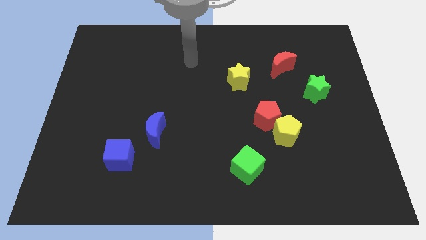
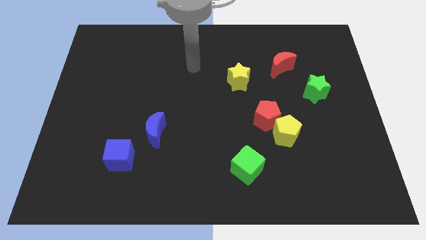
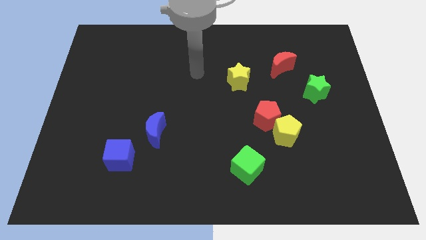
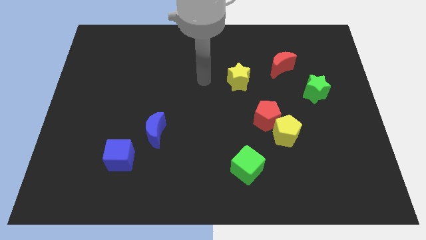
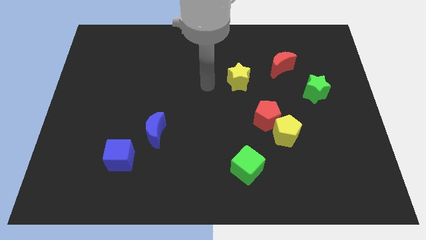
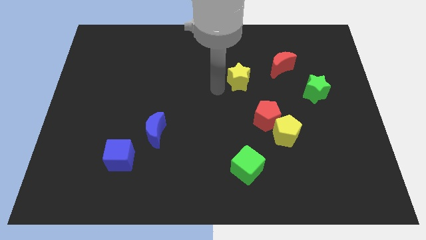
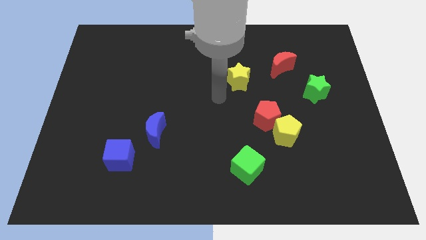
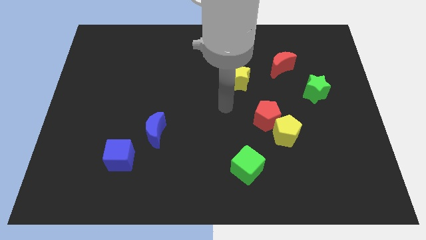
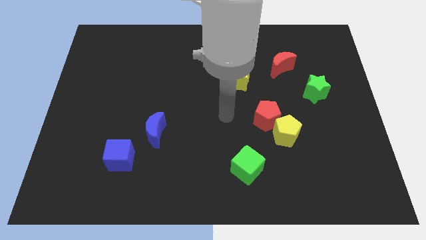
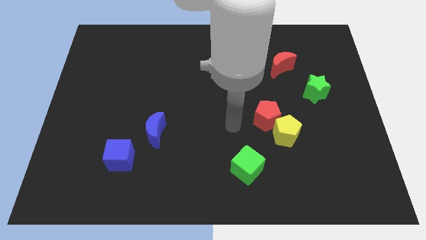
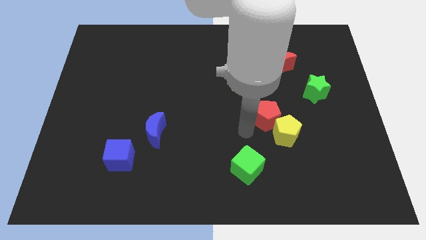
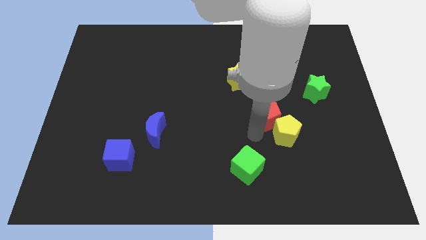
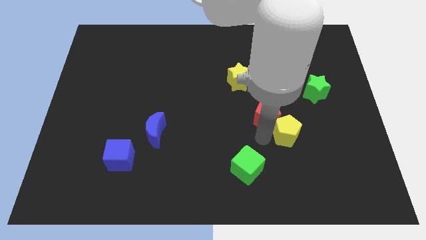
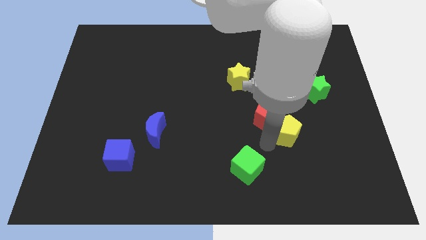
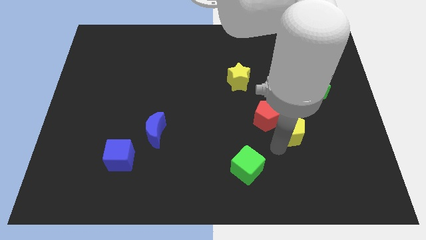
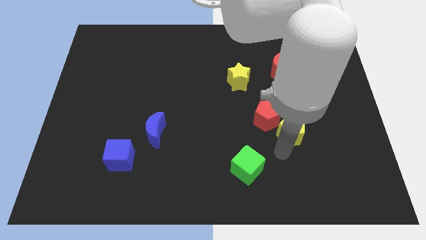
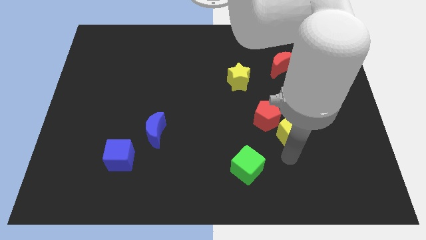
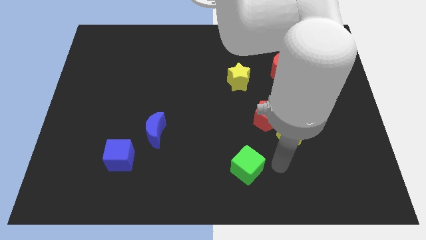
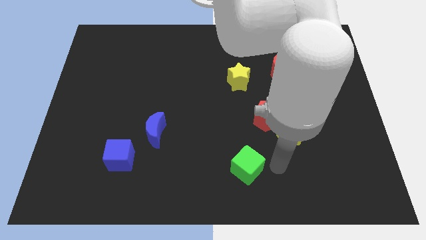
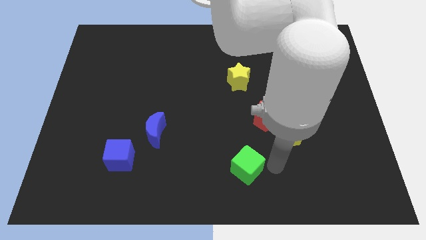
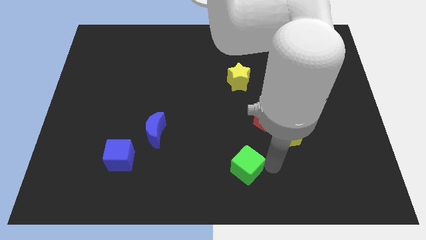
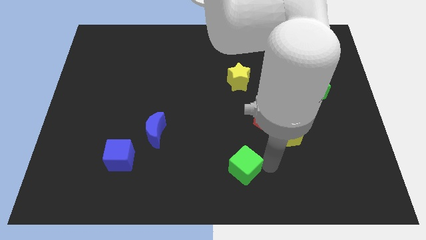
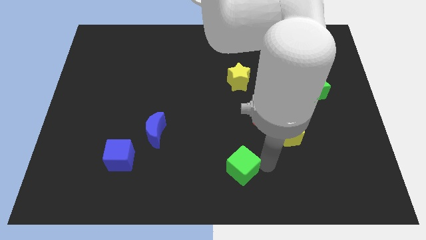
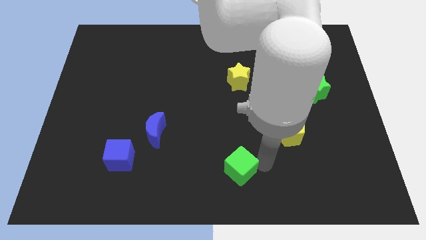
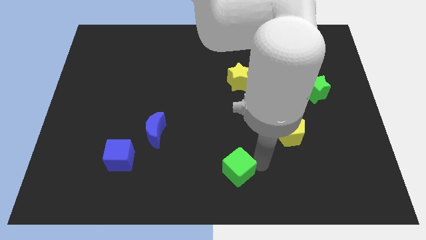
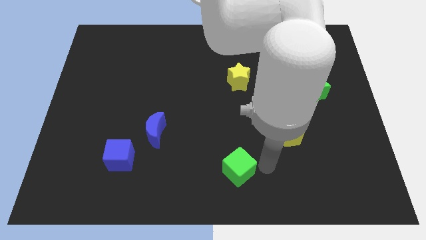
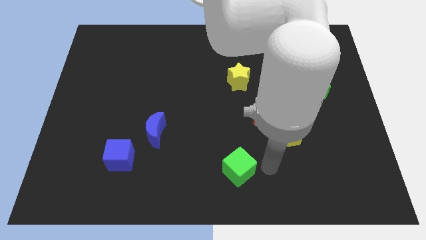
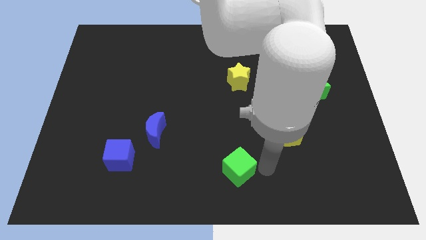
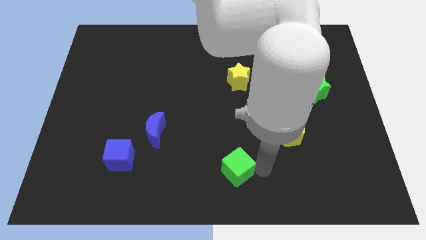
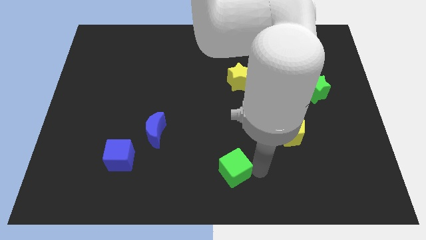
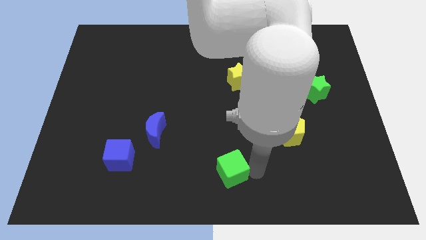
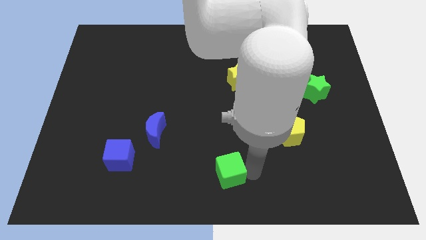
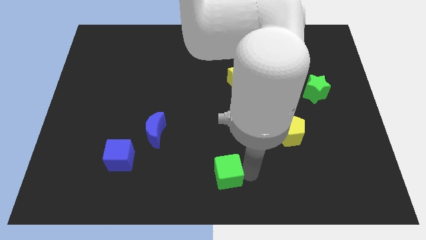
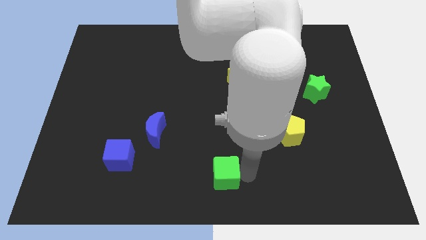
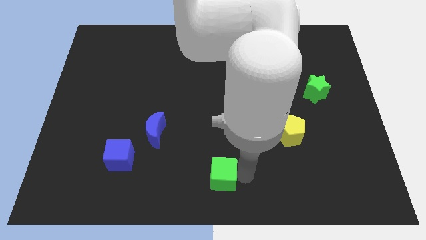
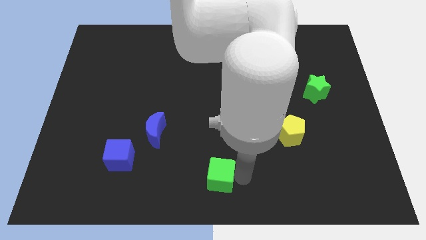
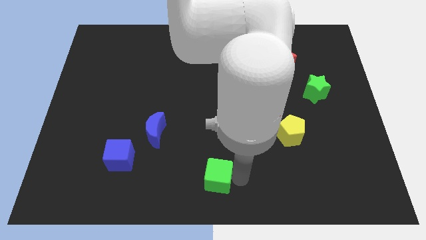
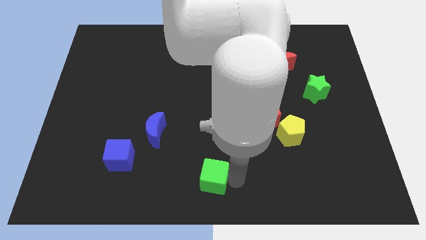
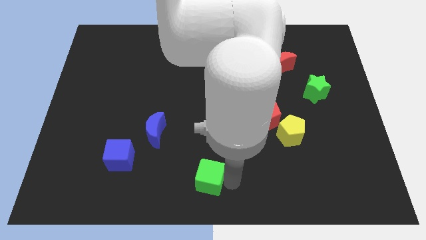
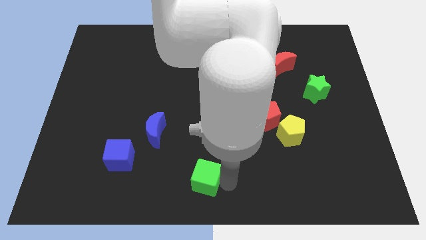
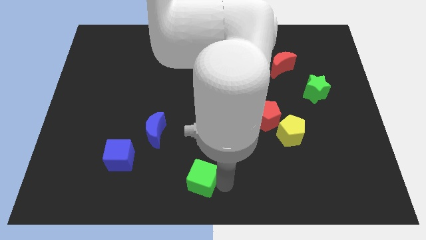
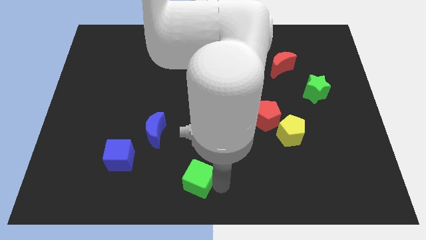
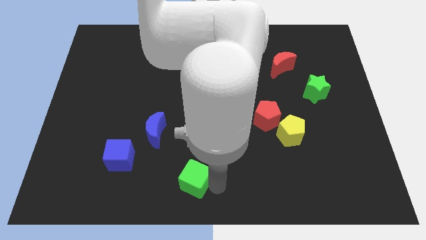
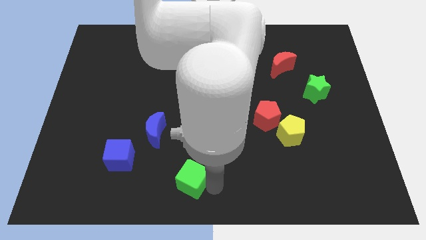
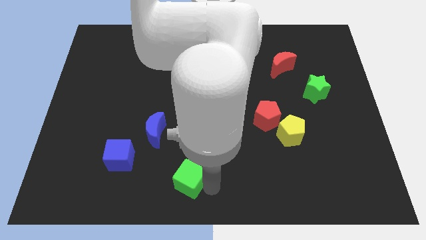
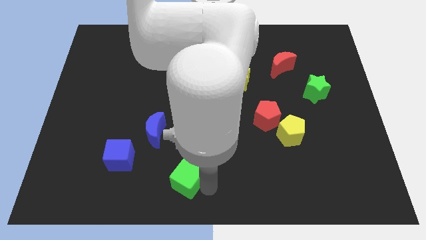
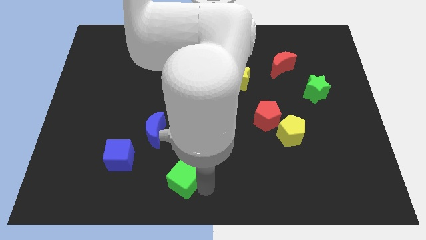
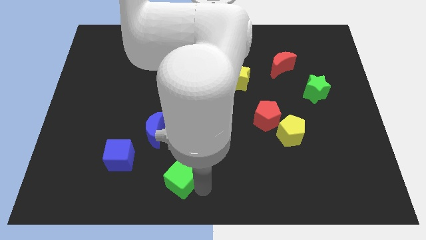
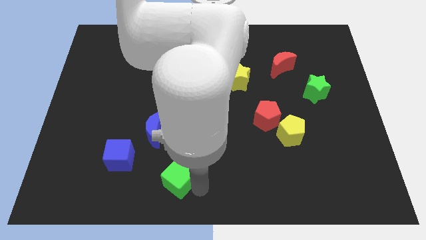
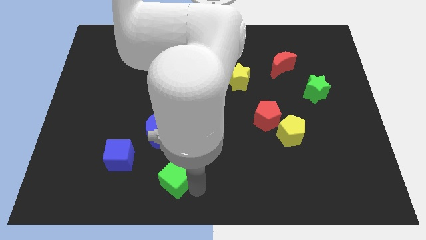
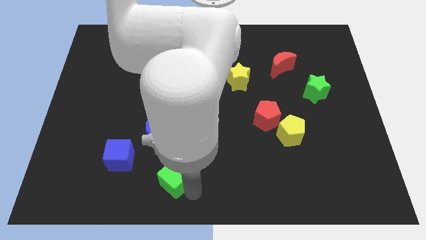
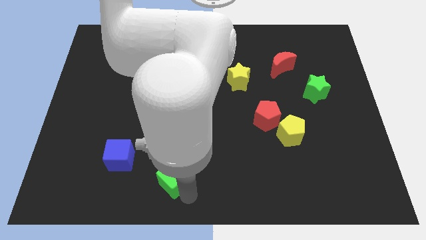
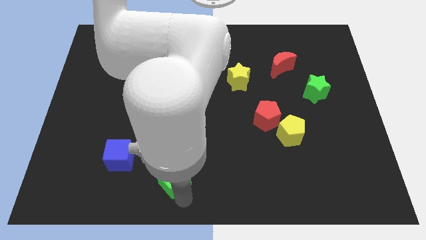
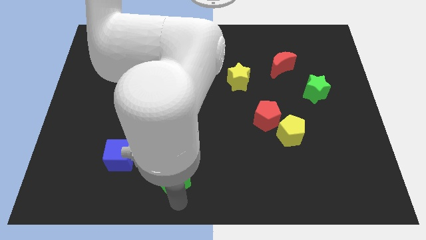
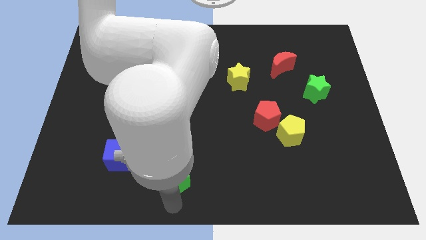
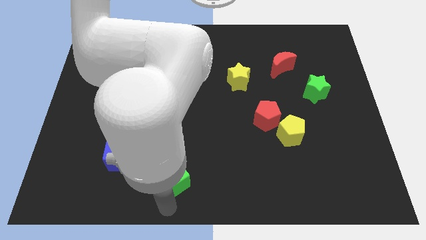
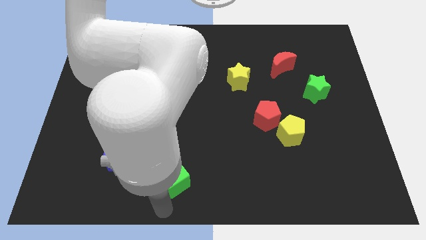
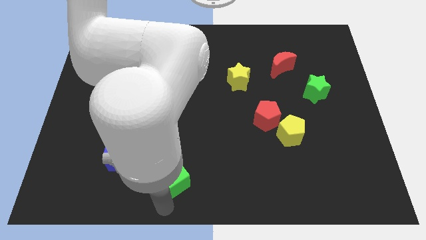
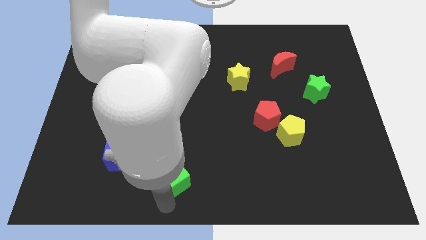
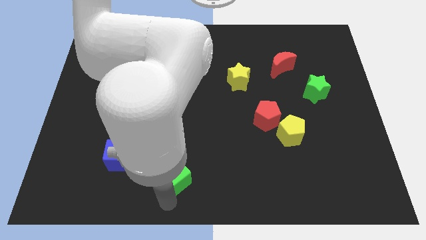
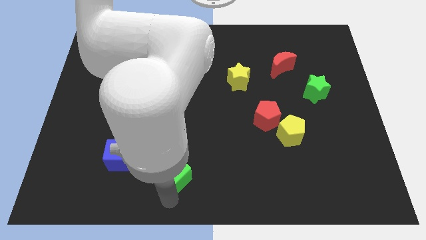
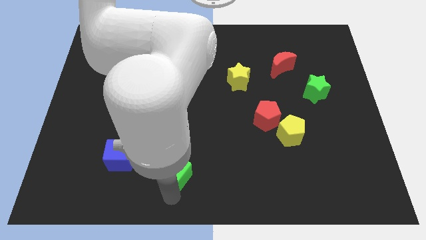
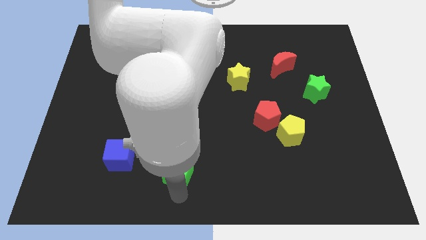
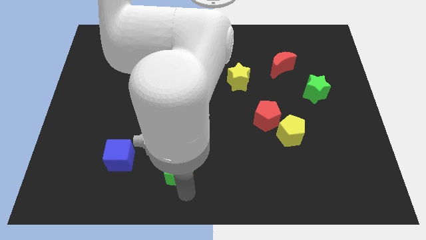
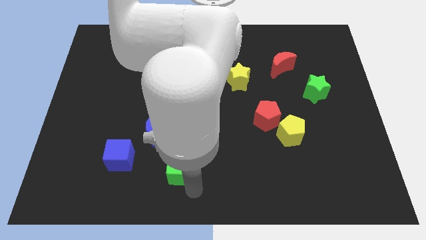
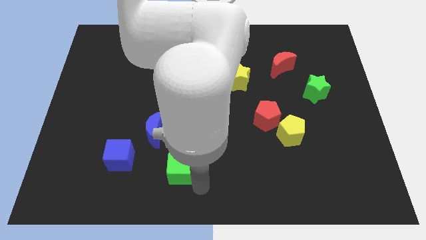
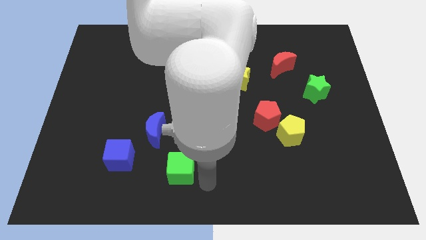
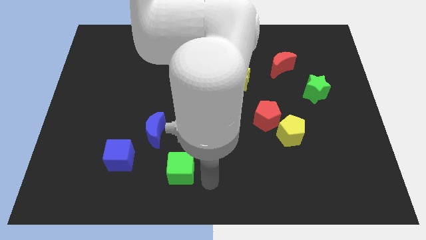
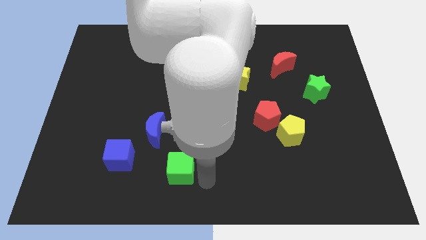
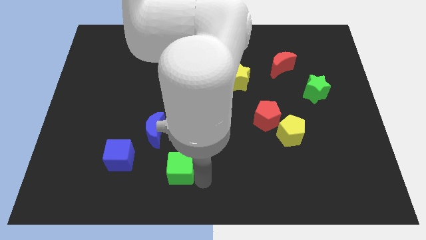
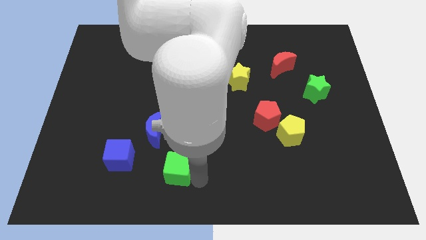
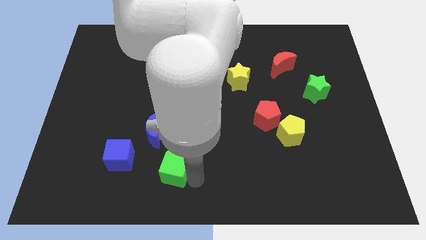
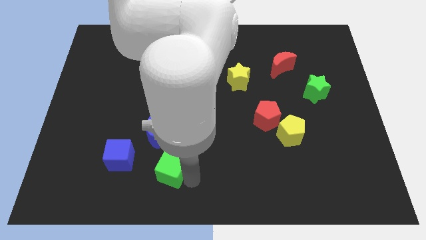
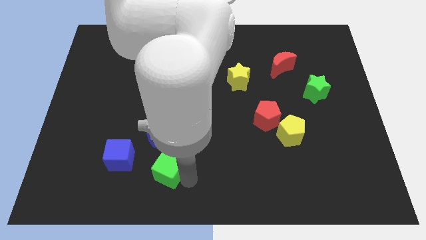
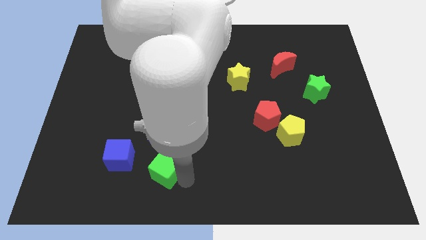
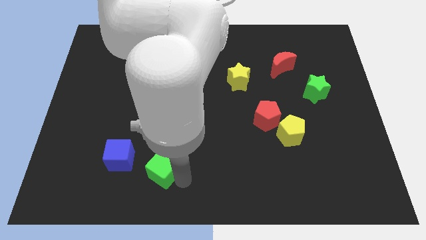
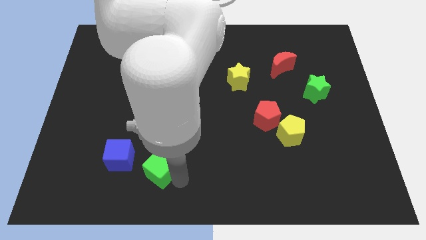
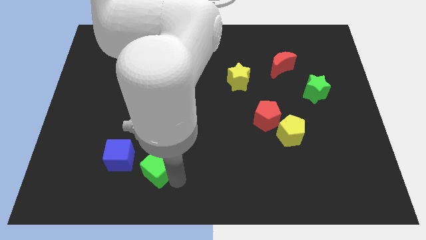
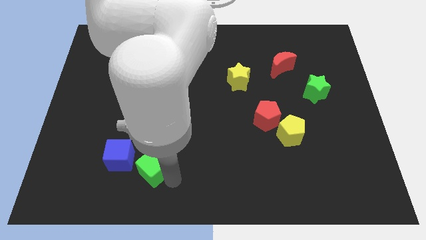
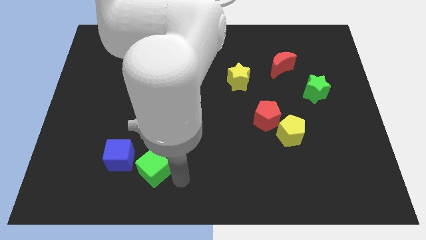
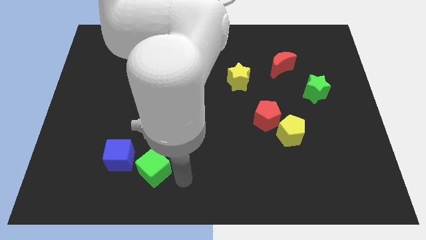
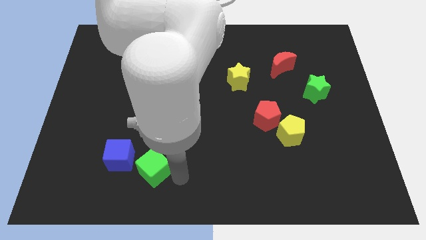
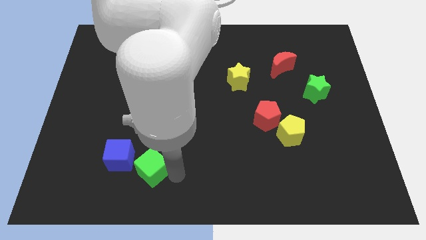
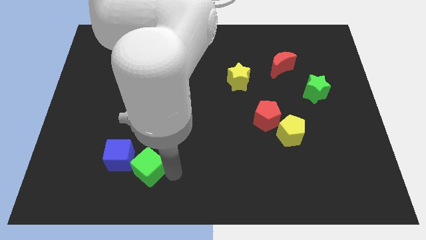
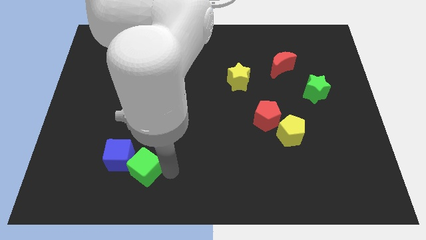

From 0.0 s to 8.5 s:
put the green cube towards the blue cube
